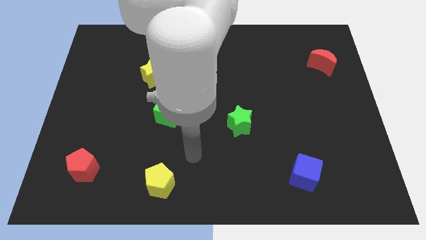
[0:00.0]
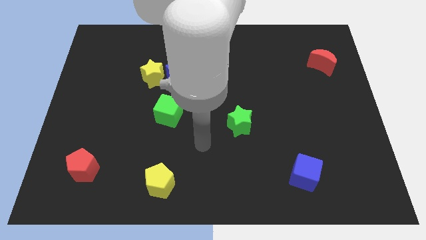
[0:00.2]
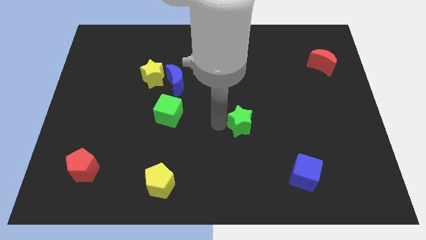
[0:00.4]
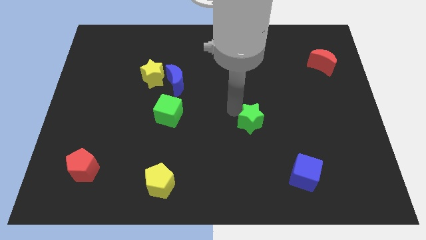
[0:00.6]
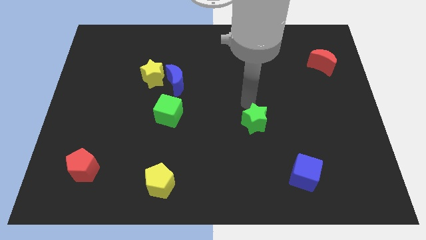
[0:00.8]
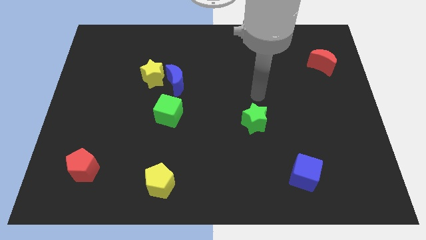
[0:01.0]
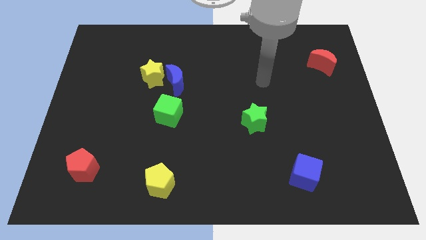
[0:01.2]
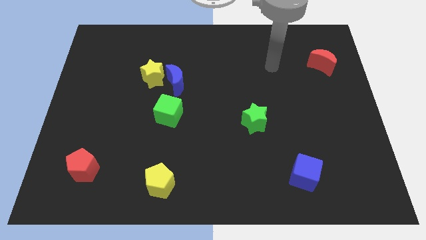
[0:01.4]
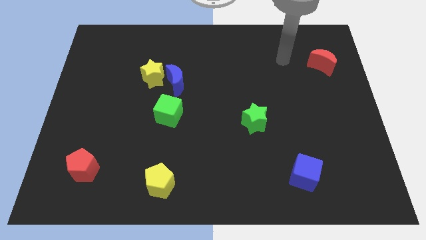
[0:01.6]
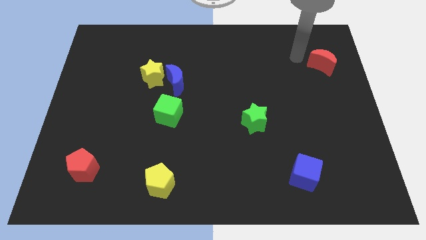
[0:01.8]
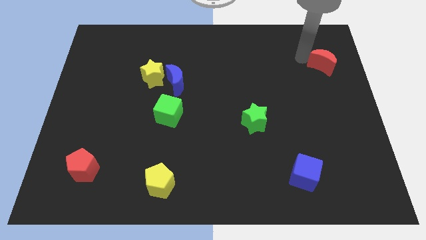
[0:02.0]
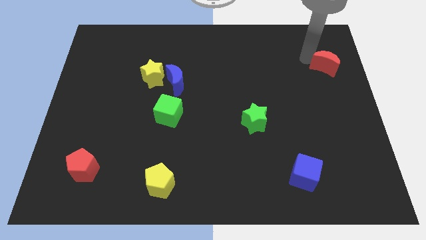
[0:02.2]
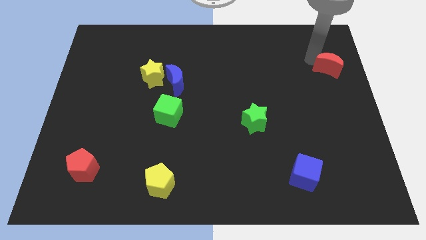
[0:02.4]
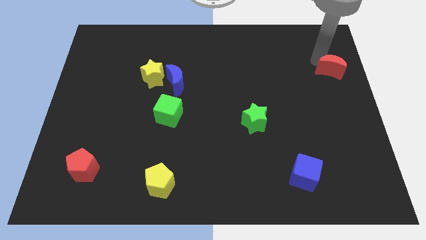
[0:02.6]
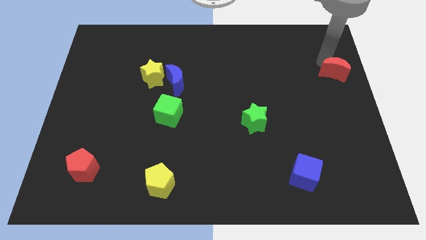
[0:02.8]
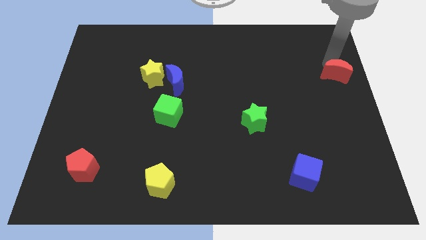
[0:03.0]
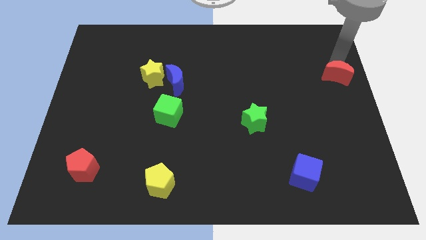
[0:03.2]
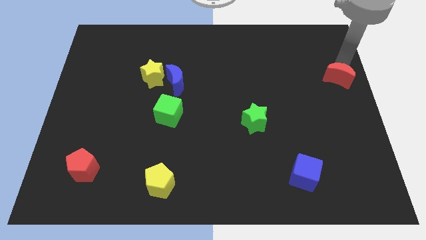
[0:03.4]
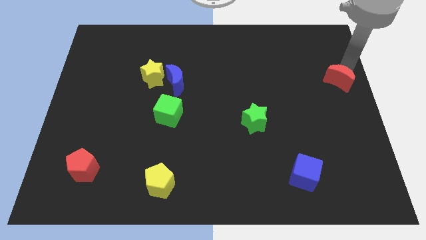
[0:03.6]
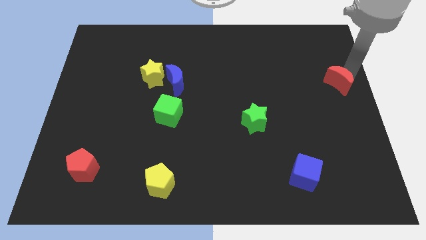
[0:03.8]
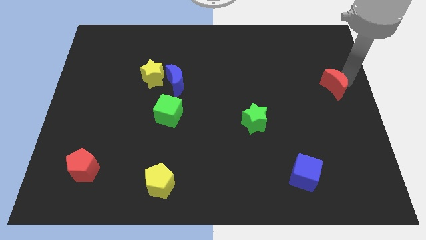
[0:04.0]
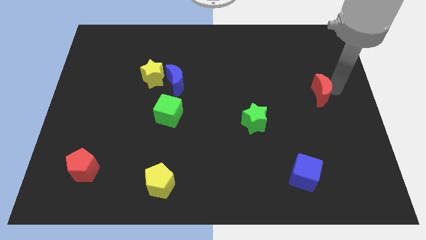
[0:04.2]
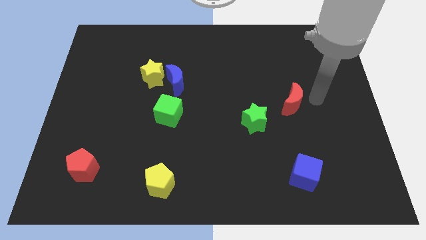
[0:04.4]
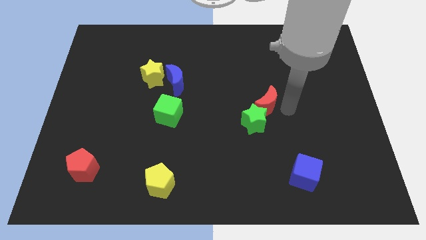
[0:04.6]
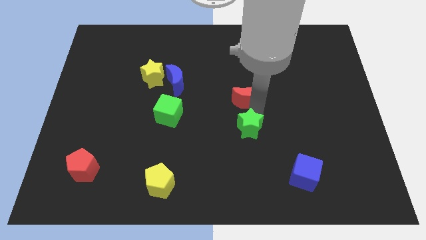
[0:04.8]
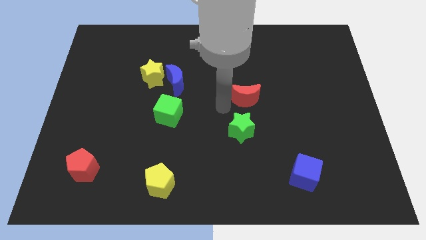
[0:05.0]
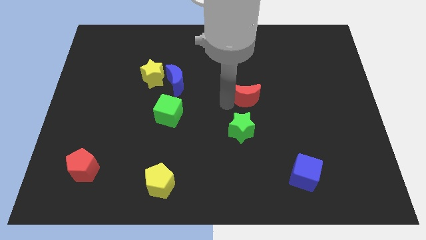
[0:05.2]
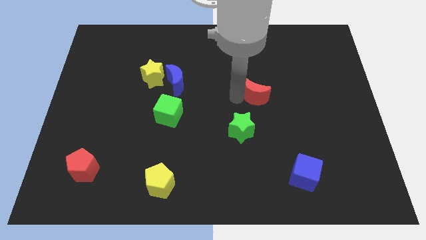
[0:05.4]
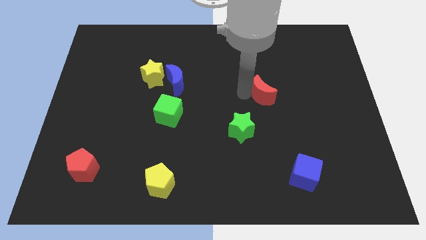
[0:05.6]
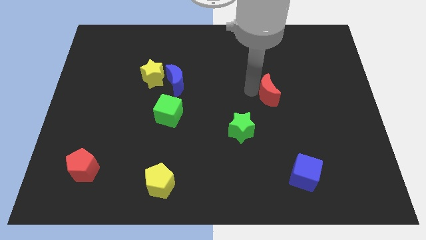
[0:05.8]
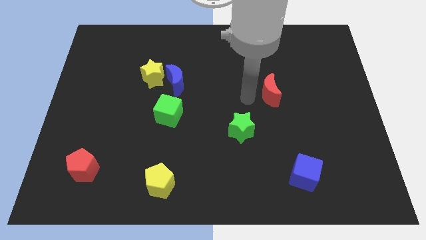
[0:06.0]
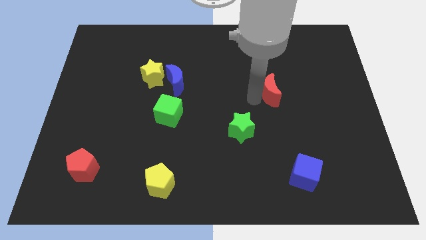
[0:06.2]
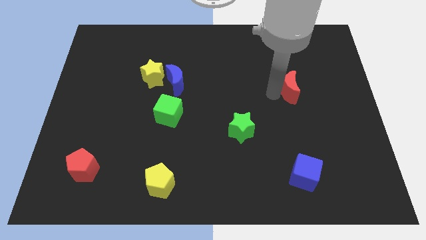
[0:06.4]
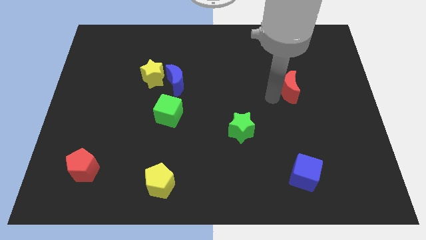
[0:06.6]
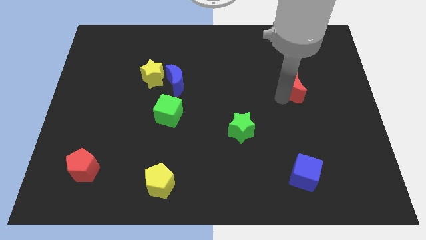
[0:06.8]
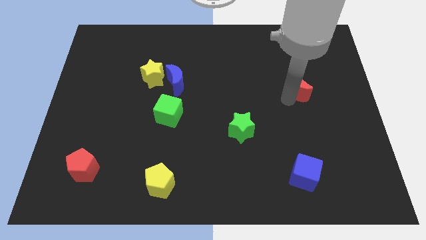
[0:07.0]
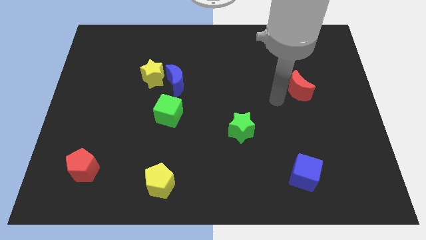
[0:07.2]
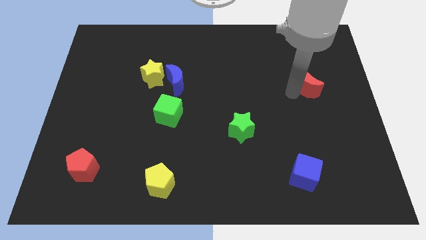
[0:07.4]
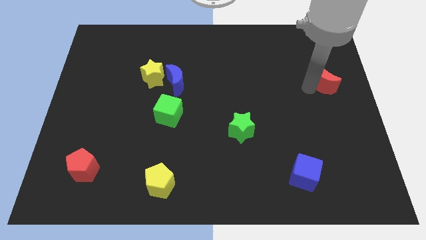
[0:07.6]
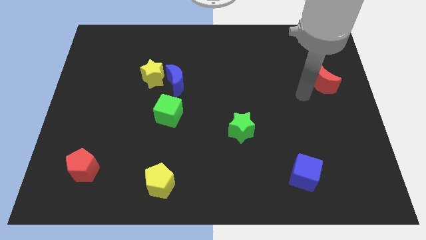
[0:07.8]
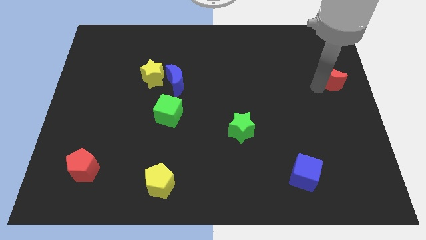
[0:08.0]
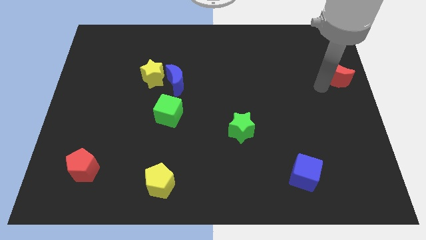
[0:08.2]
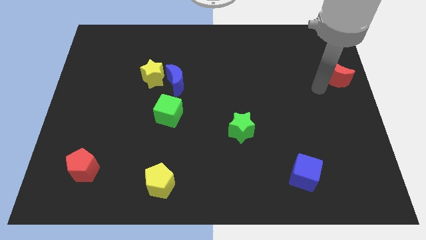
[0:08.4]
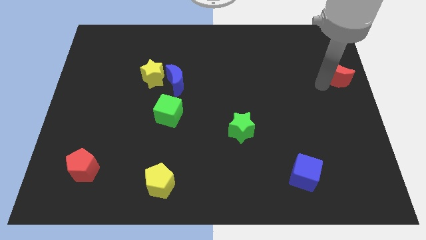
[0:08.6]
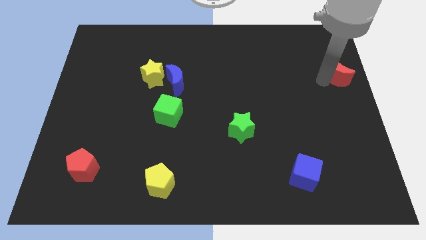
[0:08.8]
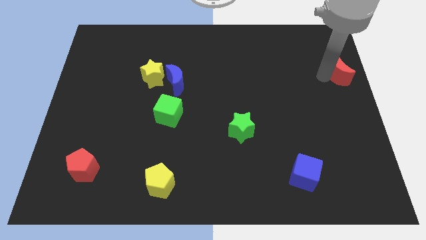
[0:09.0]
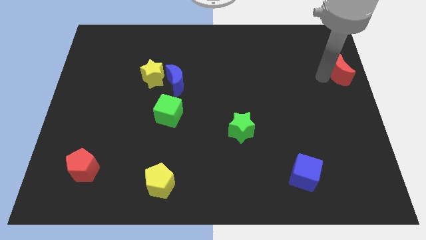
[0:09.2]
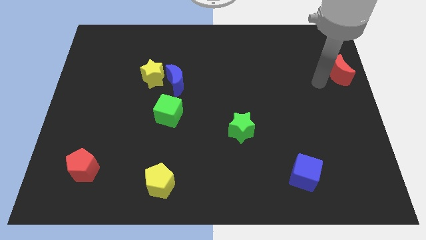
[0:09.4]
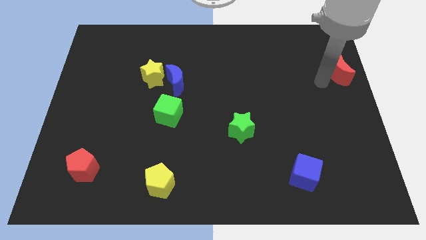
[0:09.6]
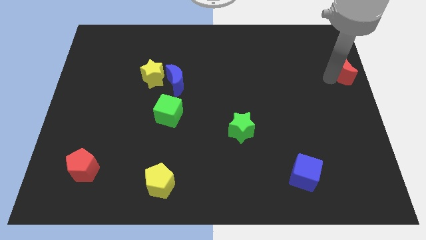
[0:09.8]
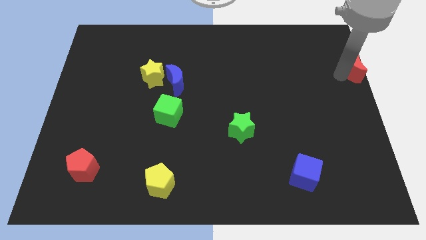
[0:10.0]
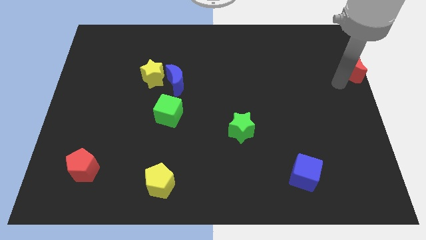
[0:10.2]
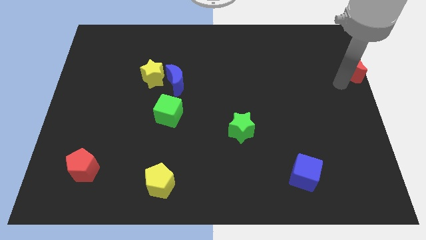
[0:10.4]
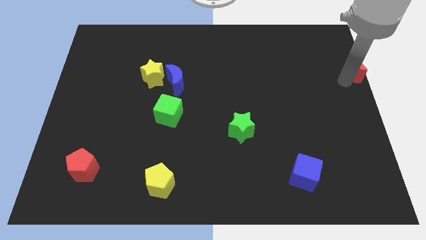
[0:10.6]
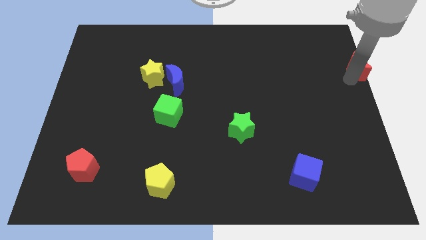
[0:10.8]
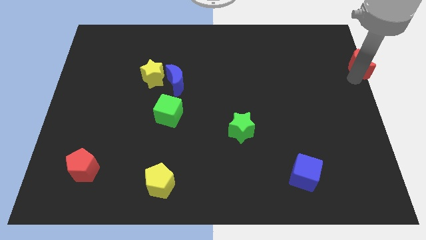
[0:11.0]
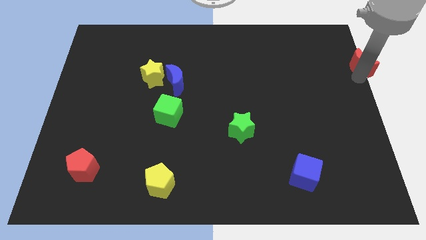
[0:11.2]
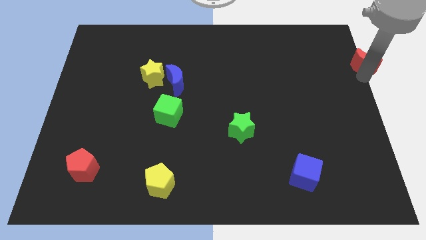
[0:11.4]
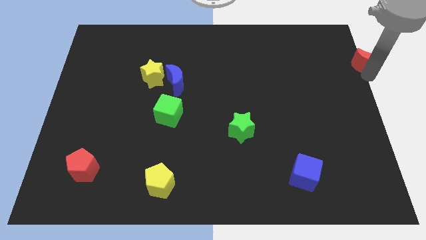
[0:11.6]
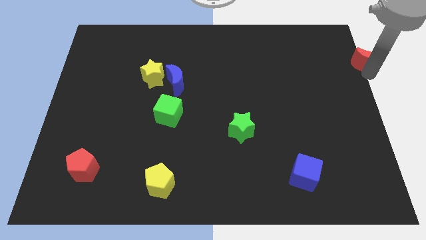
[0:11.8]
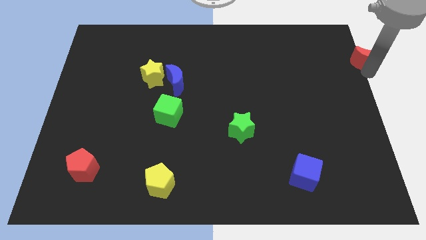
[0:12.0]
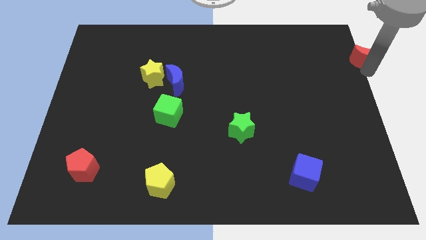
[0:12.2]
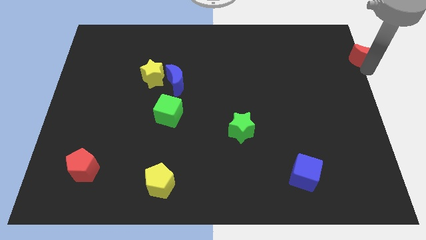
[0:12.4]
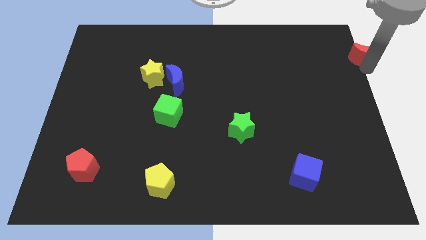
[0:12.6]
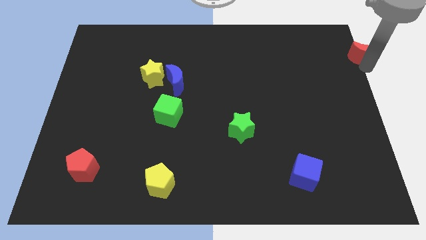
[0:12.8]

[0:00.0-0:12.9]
put the red moon to the upper right corner
